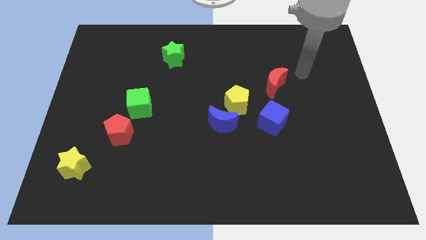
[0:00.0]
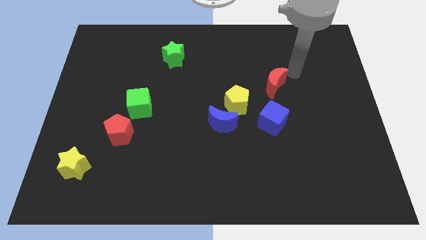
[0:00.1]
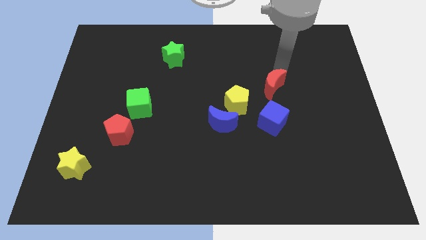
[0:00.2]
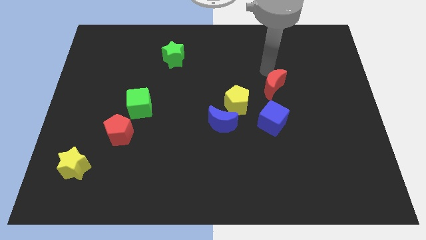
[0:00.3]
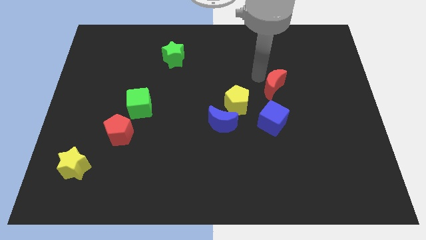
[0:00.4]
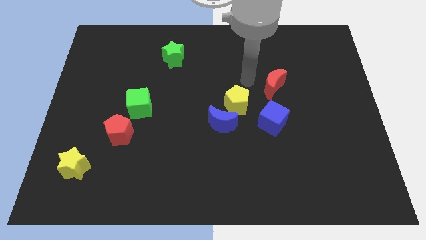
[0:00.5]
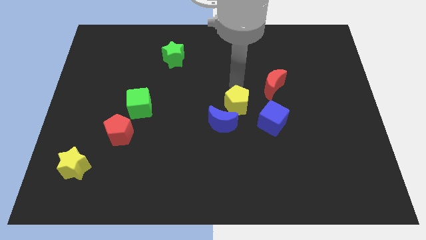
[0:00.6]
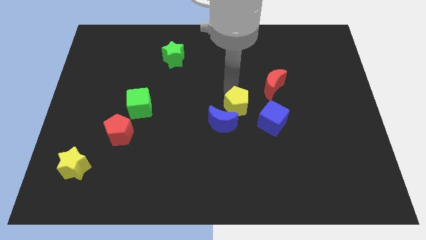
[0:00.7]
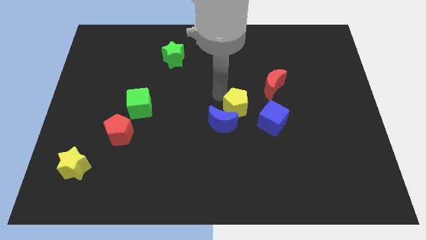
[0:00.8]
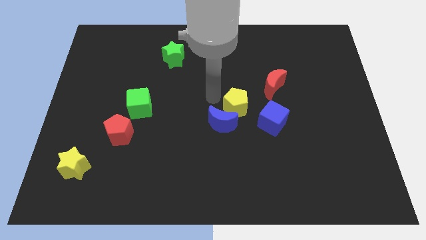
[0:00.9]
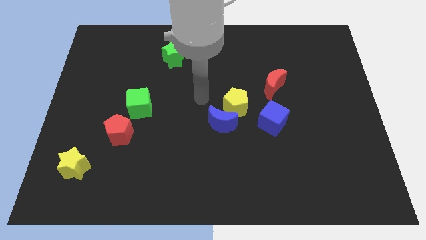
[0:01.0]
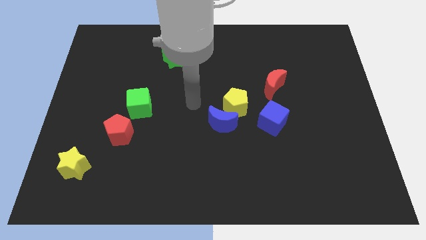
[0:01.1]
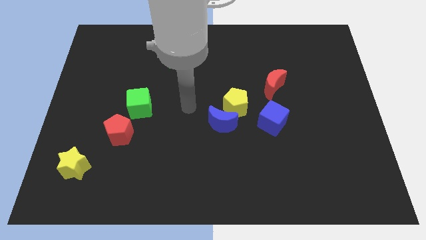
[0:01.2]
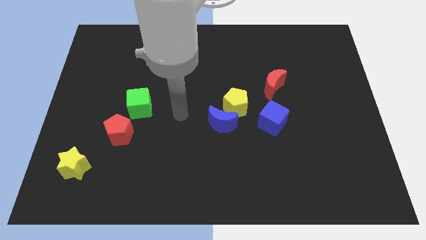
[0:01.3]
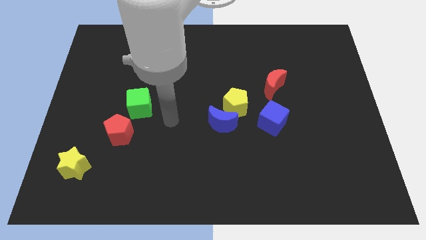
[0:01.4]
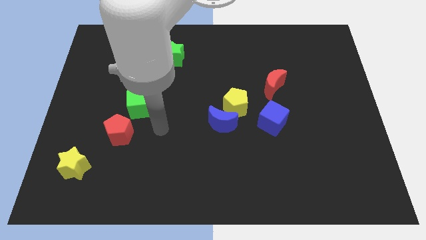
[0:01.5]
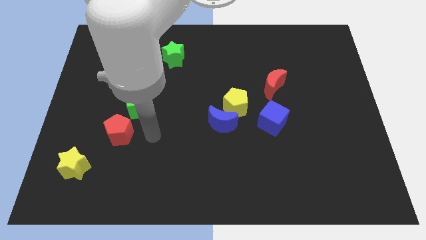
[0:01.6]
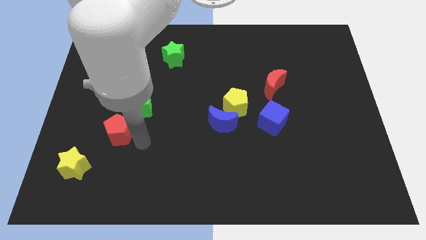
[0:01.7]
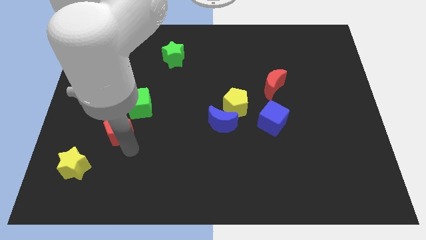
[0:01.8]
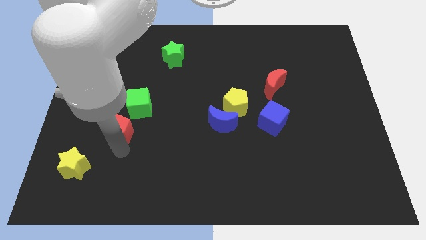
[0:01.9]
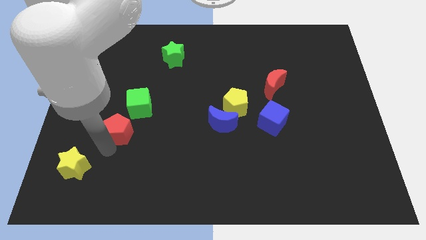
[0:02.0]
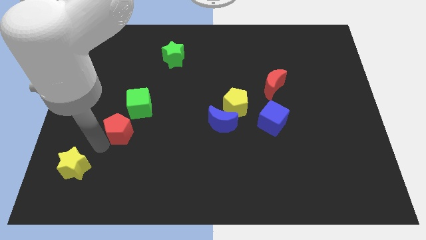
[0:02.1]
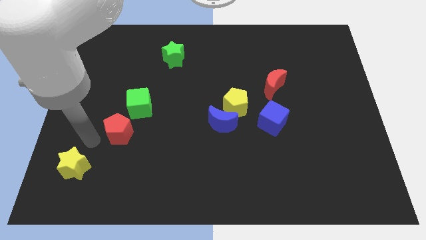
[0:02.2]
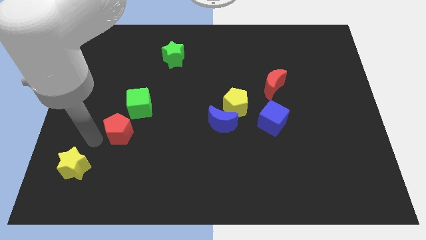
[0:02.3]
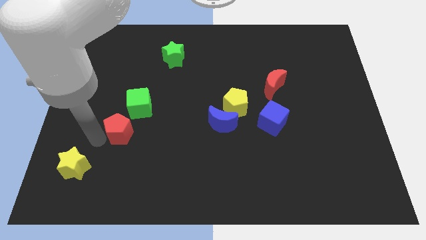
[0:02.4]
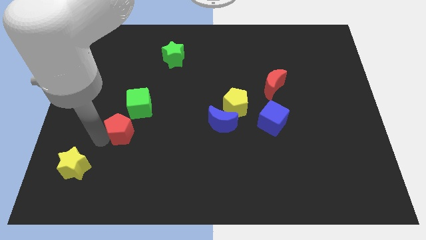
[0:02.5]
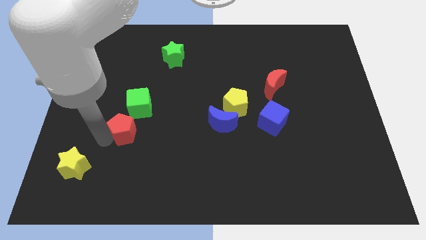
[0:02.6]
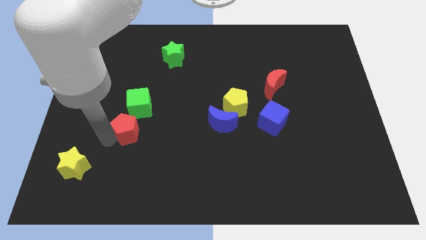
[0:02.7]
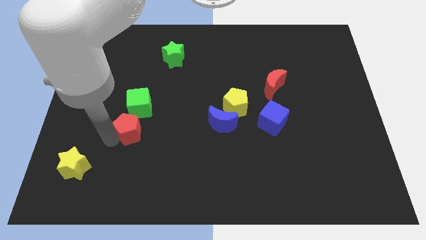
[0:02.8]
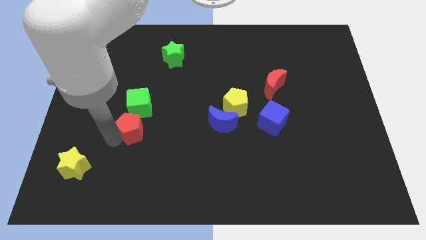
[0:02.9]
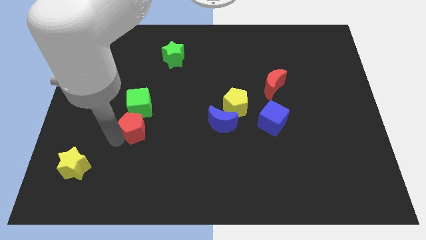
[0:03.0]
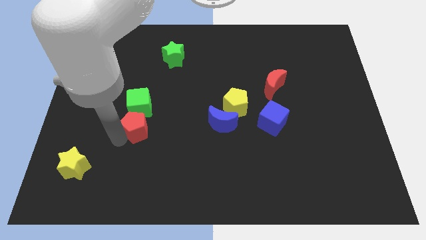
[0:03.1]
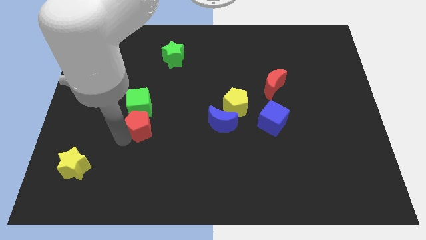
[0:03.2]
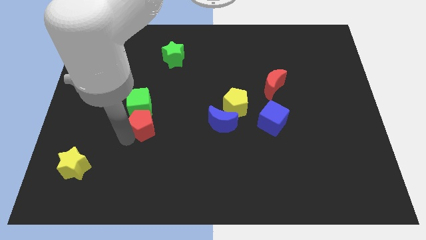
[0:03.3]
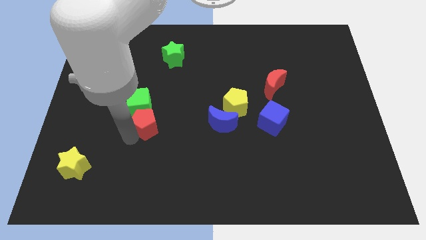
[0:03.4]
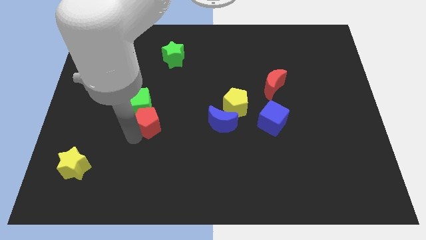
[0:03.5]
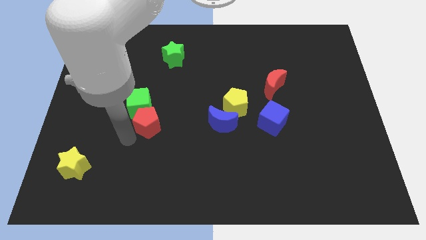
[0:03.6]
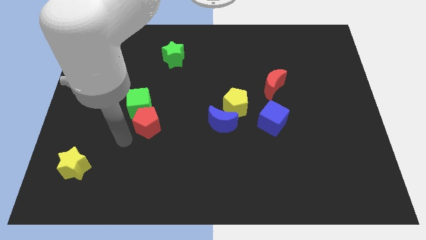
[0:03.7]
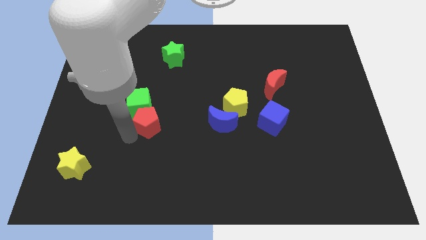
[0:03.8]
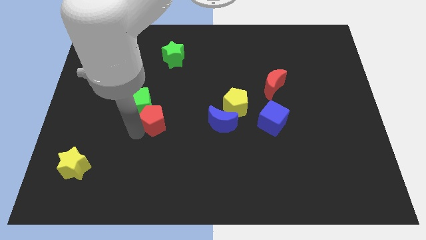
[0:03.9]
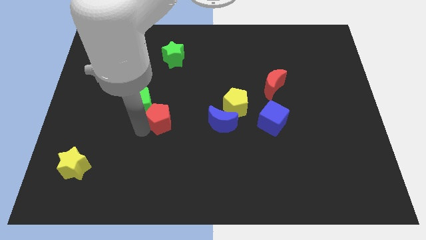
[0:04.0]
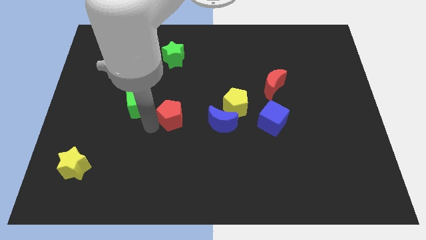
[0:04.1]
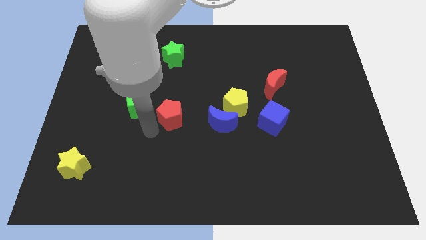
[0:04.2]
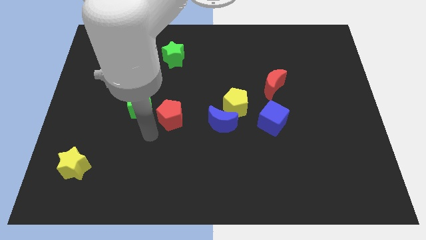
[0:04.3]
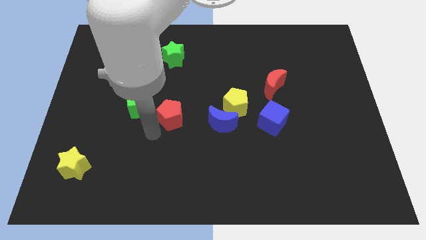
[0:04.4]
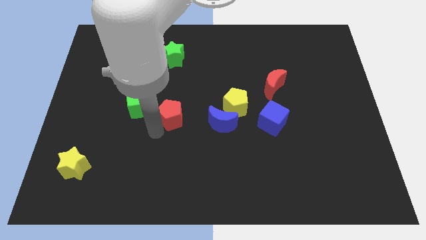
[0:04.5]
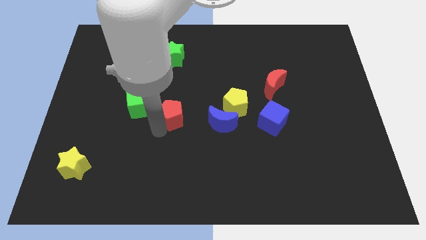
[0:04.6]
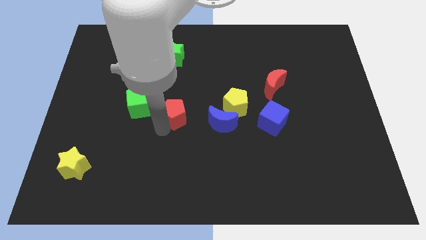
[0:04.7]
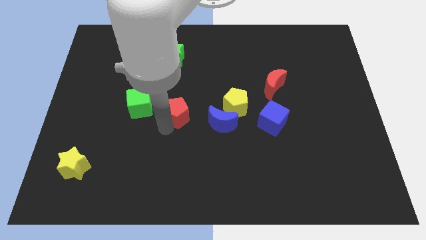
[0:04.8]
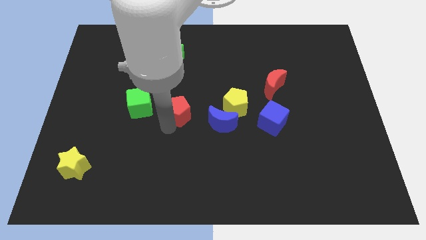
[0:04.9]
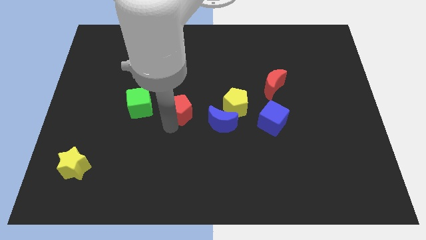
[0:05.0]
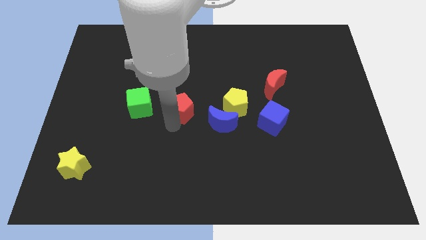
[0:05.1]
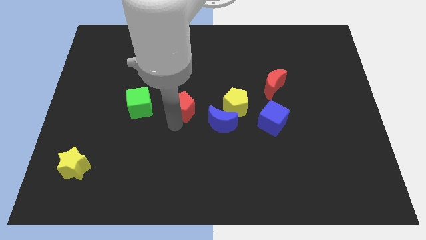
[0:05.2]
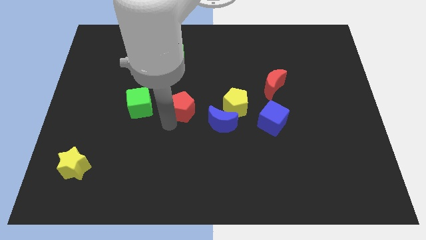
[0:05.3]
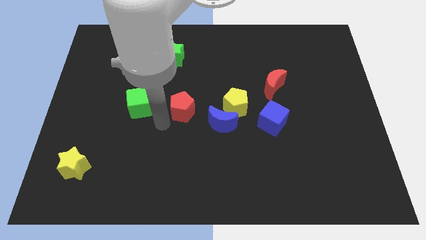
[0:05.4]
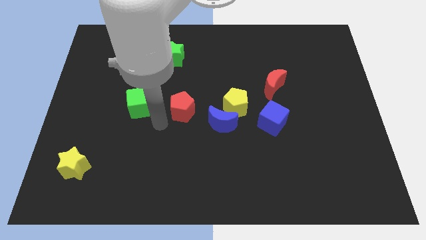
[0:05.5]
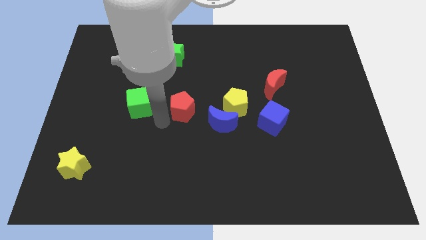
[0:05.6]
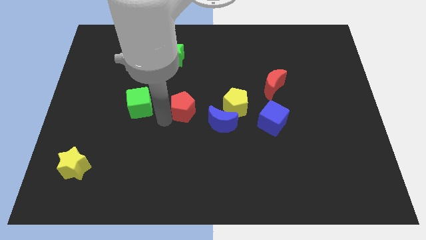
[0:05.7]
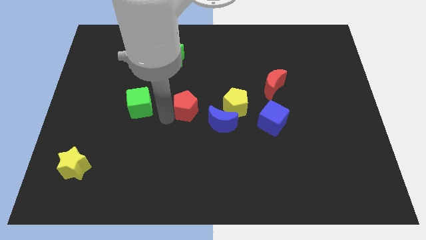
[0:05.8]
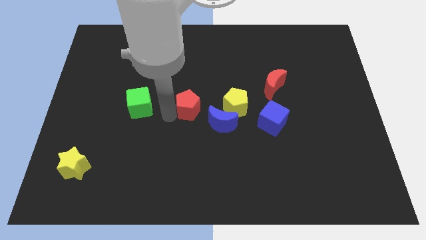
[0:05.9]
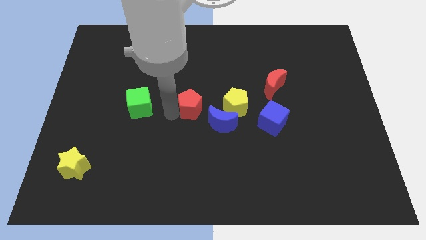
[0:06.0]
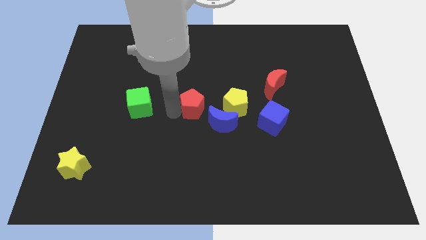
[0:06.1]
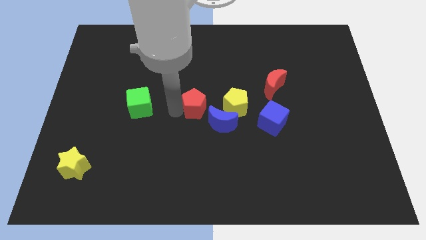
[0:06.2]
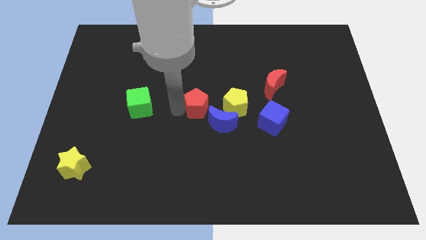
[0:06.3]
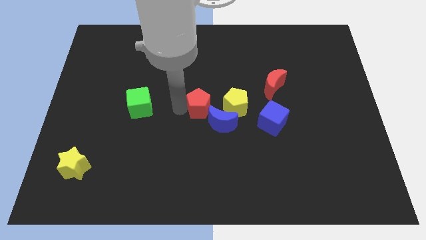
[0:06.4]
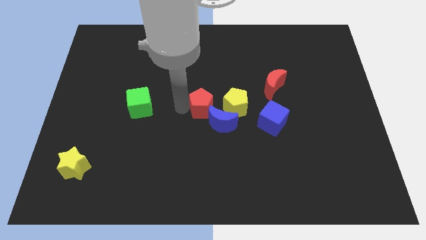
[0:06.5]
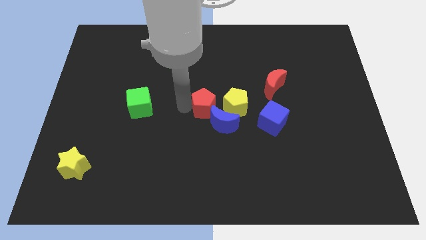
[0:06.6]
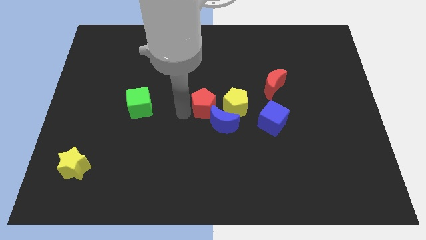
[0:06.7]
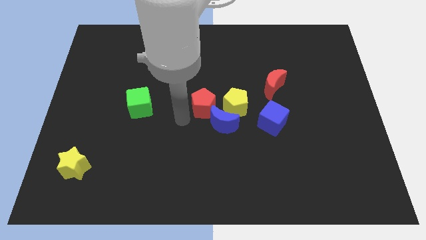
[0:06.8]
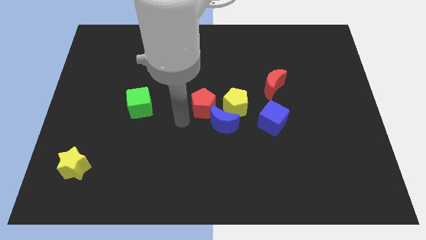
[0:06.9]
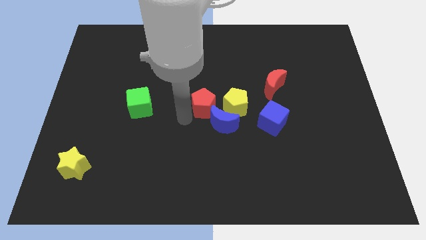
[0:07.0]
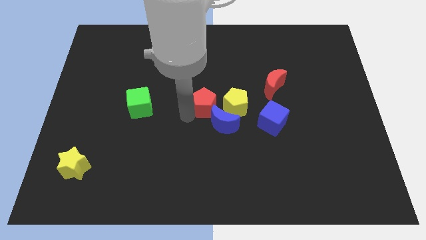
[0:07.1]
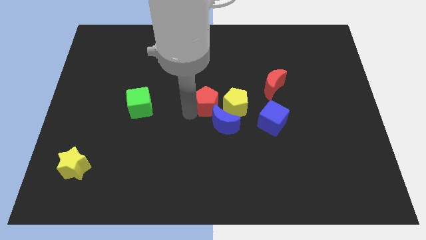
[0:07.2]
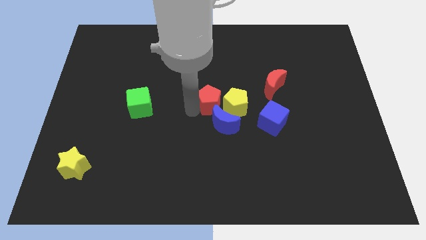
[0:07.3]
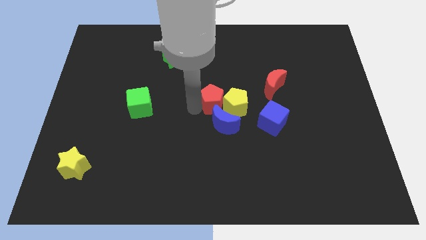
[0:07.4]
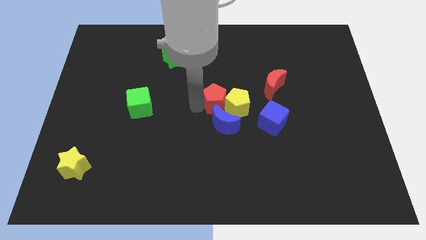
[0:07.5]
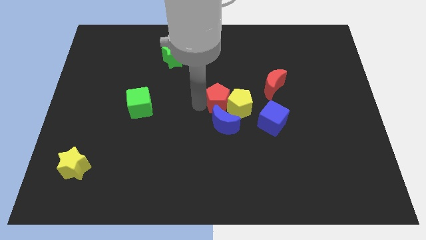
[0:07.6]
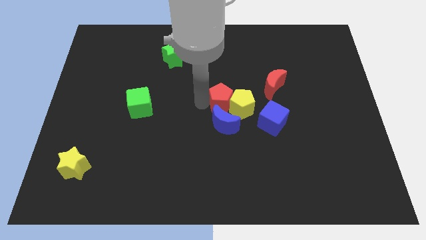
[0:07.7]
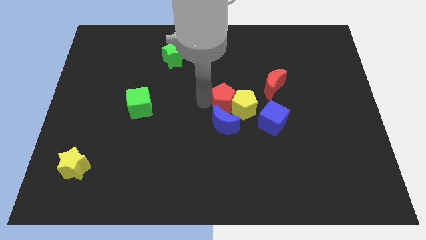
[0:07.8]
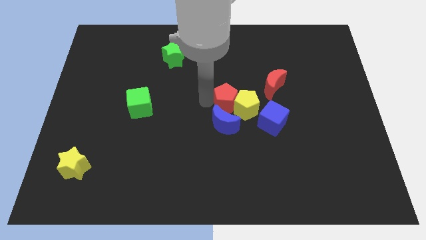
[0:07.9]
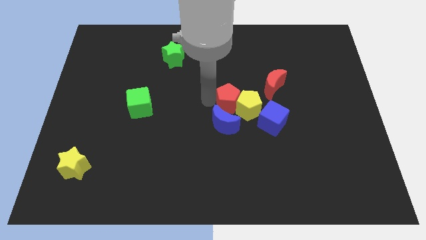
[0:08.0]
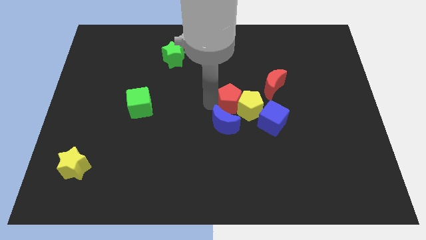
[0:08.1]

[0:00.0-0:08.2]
put the red pentagon to the bottom left of the red moon

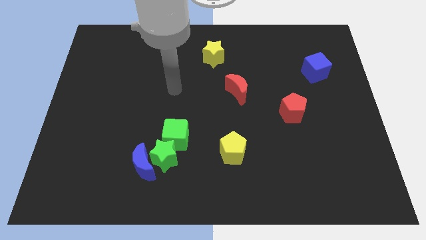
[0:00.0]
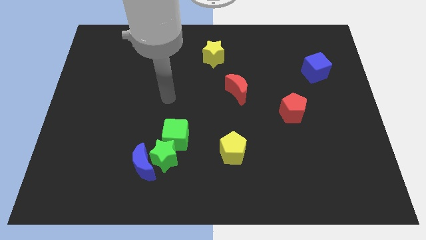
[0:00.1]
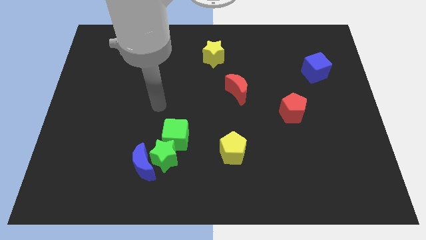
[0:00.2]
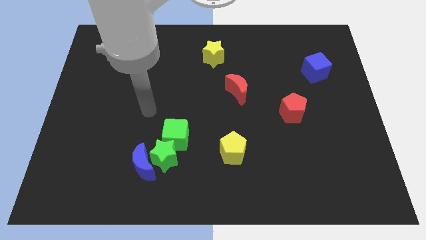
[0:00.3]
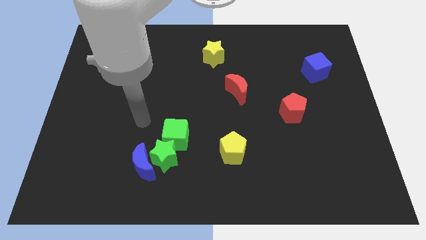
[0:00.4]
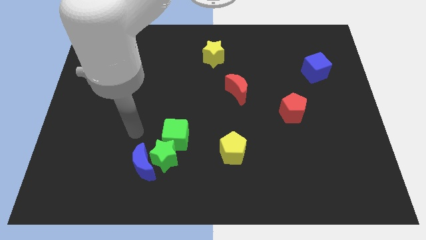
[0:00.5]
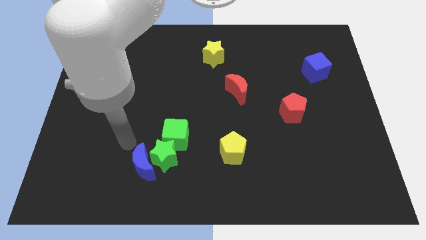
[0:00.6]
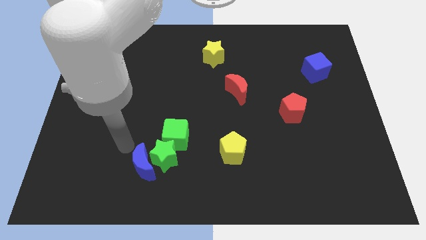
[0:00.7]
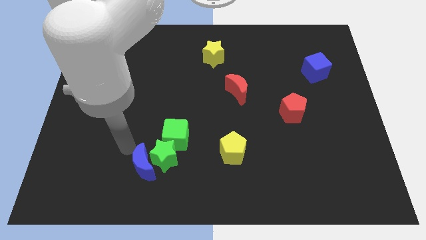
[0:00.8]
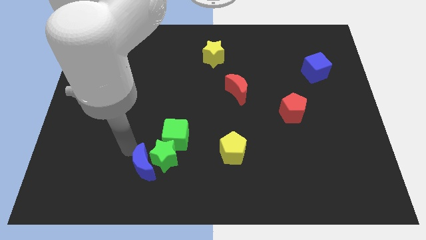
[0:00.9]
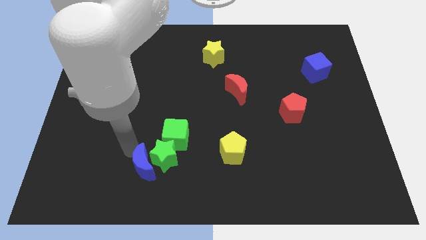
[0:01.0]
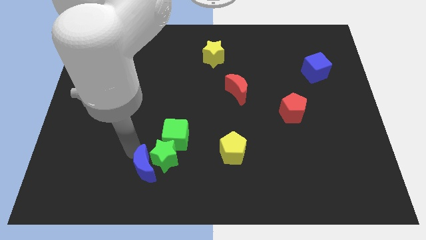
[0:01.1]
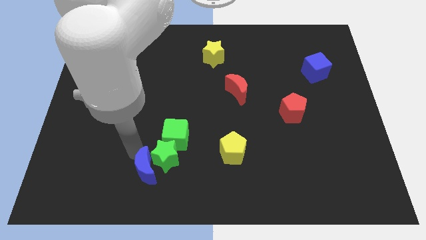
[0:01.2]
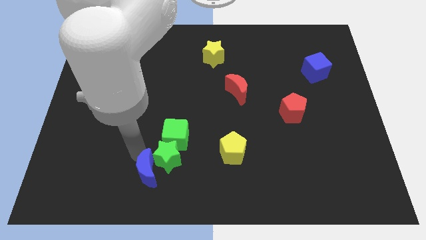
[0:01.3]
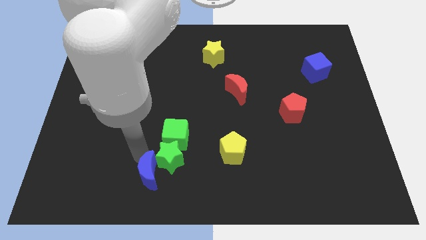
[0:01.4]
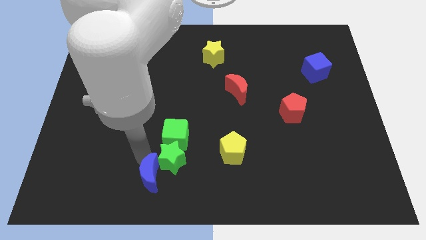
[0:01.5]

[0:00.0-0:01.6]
move the blue moon to the bottom side of the green cube
